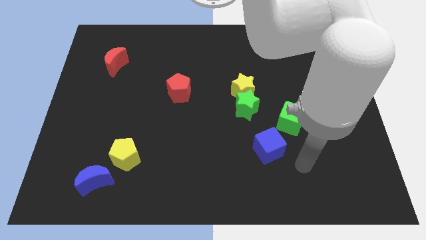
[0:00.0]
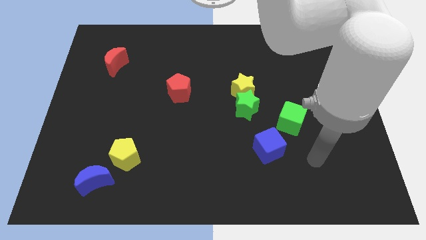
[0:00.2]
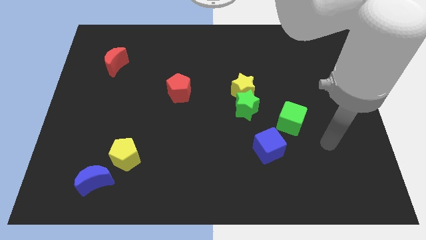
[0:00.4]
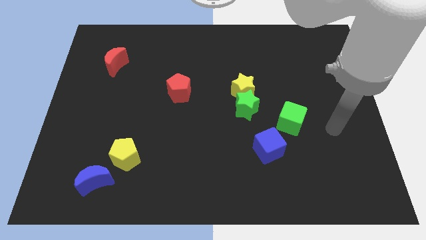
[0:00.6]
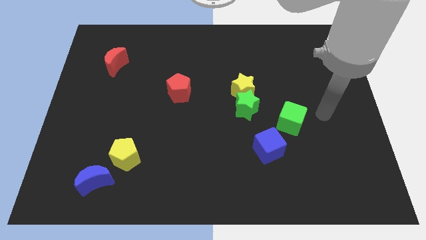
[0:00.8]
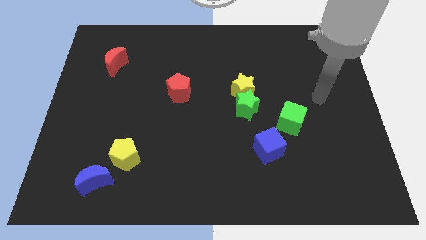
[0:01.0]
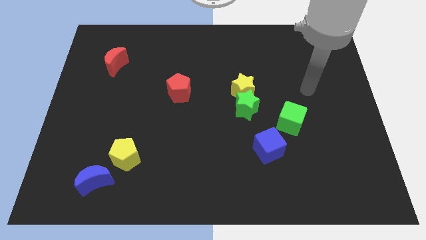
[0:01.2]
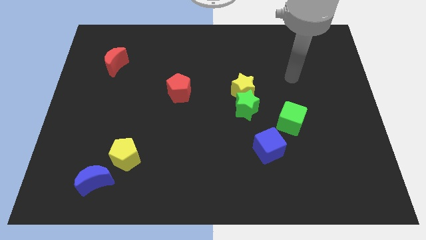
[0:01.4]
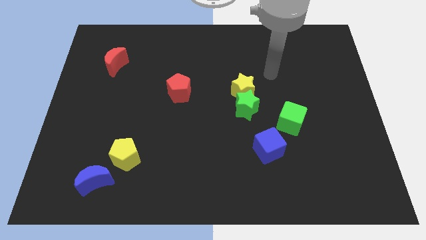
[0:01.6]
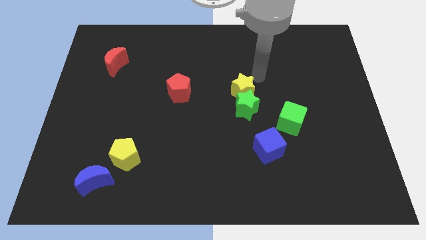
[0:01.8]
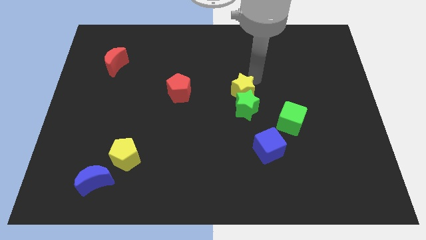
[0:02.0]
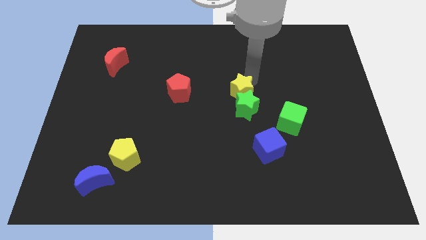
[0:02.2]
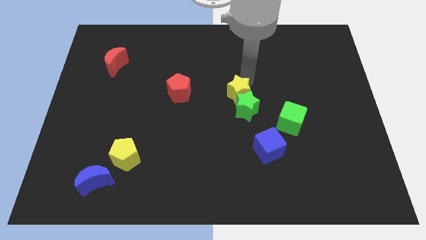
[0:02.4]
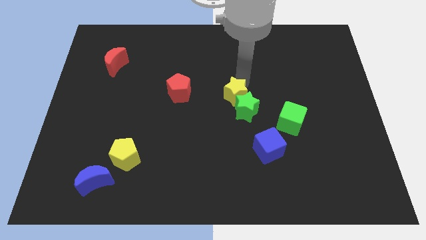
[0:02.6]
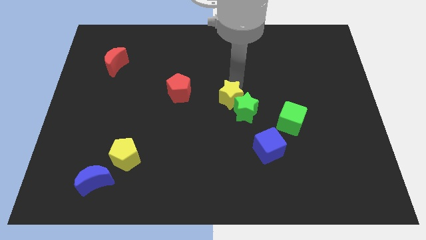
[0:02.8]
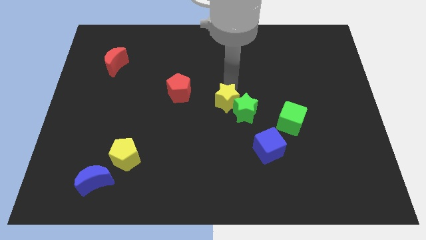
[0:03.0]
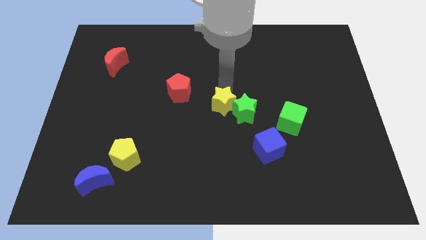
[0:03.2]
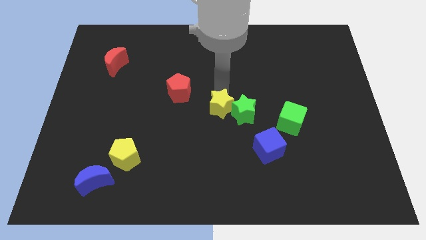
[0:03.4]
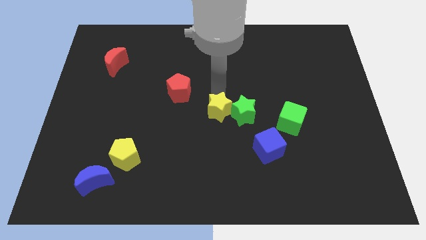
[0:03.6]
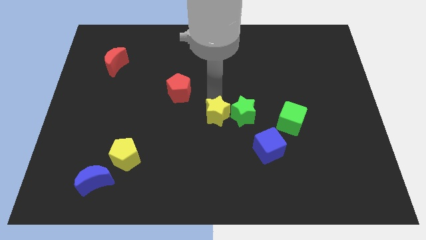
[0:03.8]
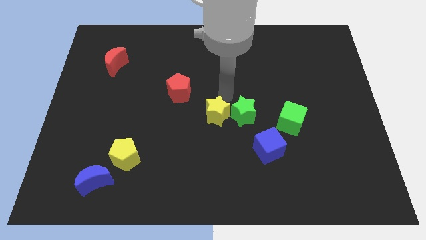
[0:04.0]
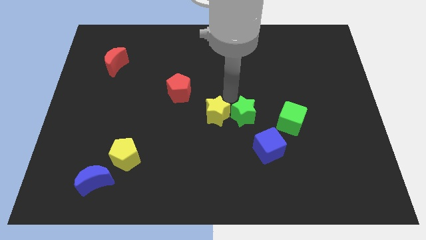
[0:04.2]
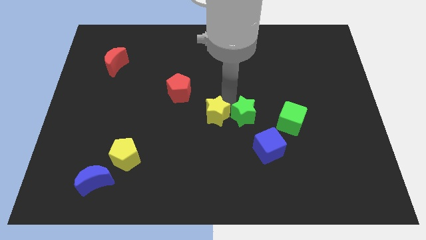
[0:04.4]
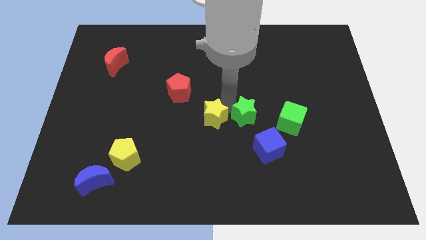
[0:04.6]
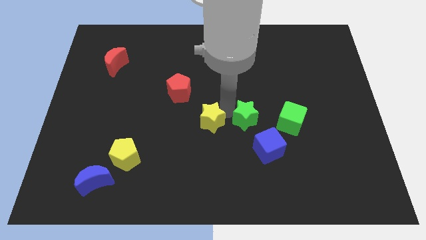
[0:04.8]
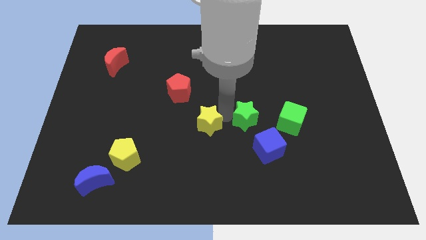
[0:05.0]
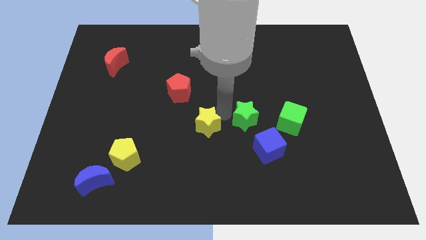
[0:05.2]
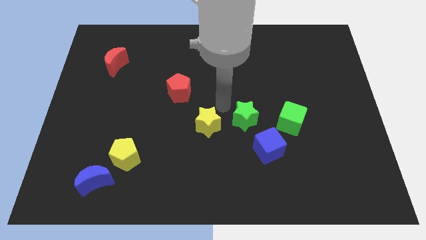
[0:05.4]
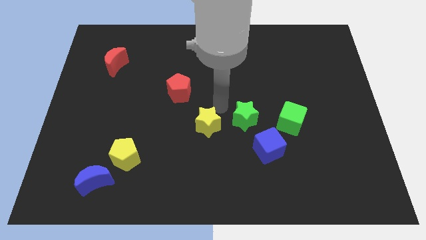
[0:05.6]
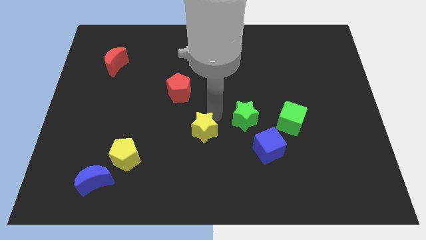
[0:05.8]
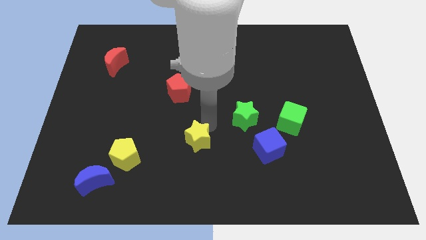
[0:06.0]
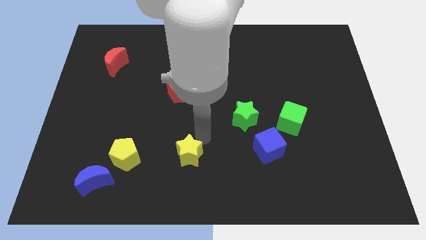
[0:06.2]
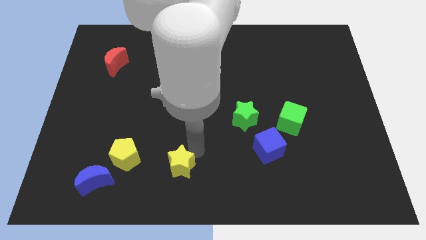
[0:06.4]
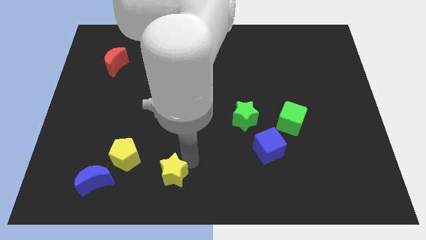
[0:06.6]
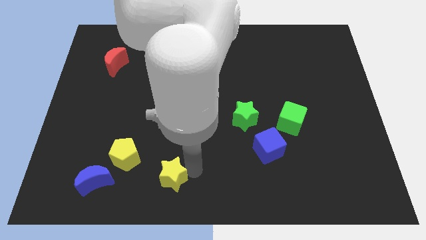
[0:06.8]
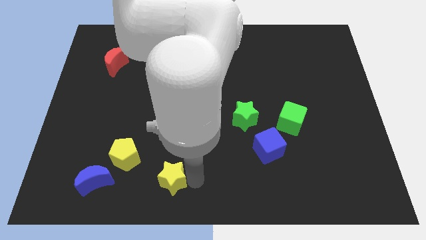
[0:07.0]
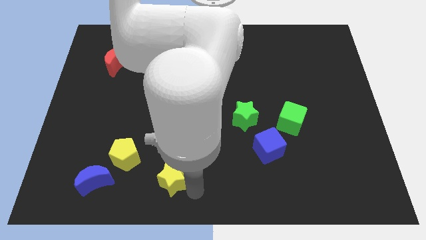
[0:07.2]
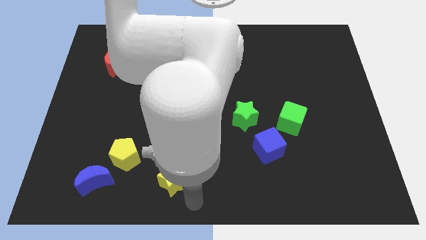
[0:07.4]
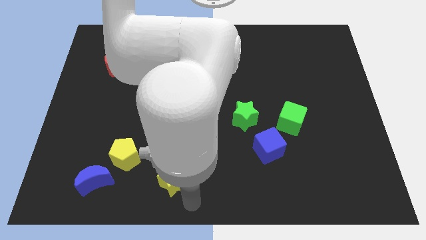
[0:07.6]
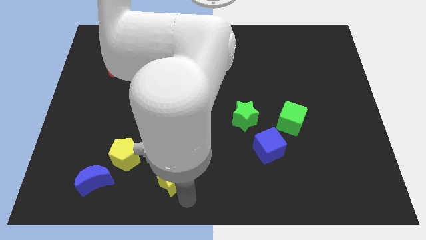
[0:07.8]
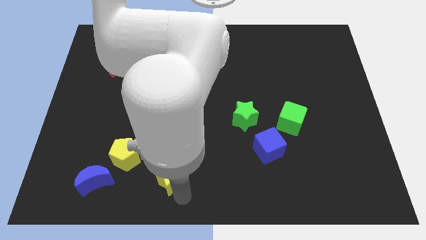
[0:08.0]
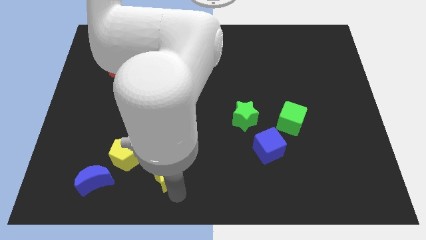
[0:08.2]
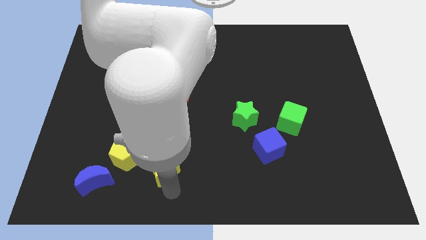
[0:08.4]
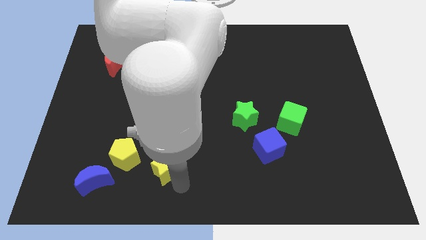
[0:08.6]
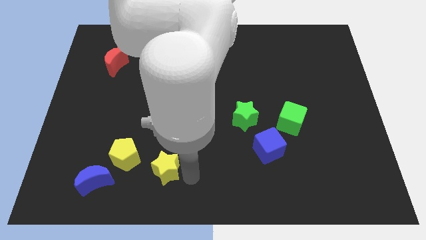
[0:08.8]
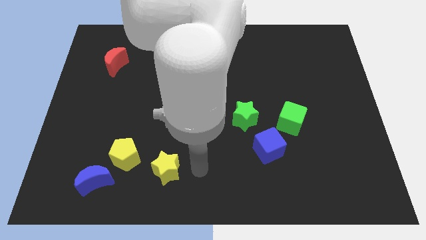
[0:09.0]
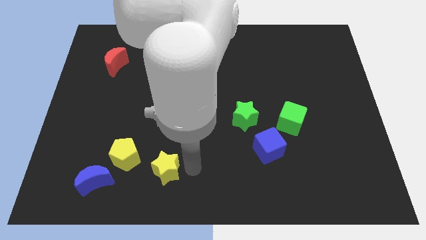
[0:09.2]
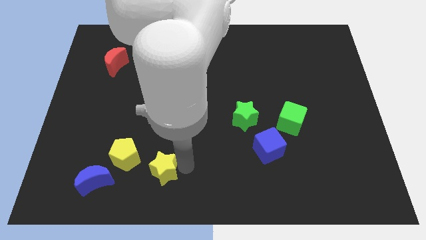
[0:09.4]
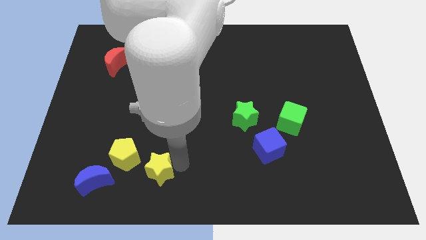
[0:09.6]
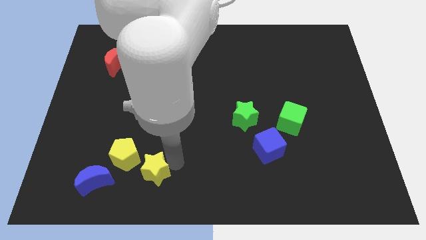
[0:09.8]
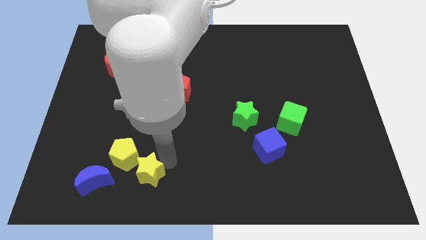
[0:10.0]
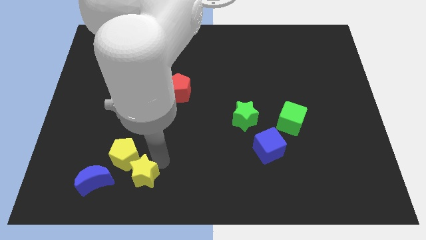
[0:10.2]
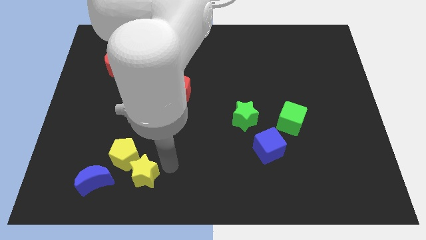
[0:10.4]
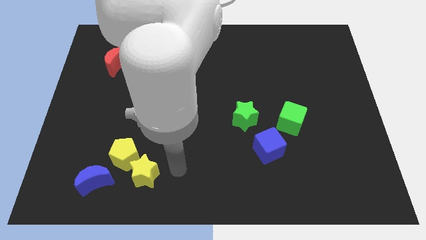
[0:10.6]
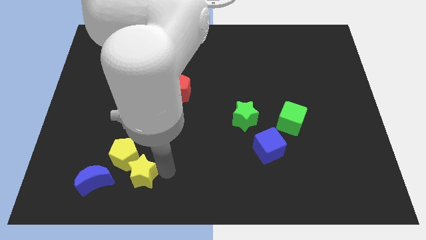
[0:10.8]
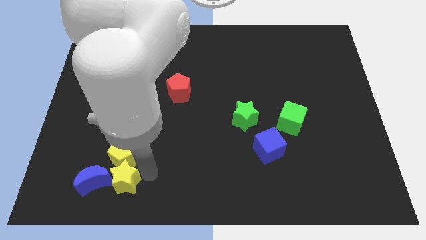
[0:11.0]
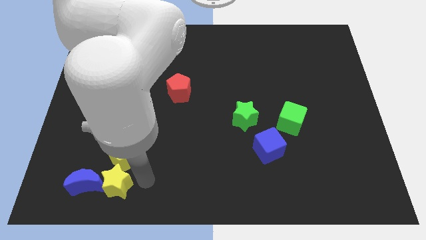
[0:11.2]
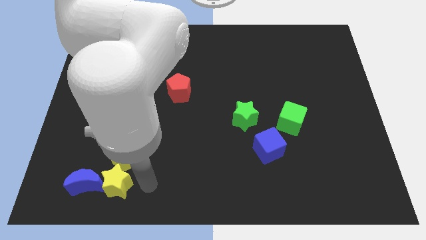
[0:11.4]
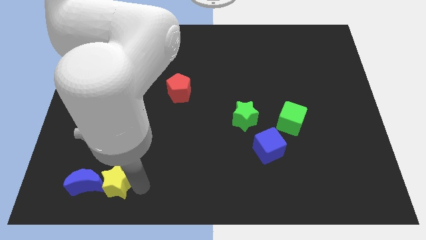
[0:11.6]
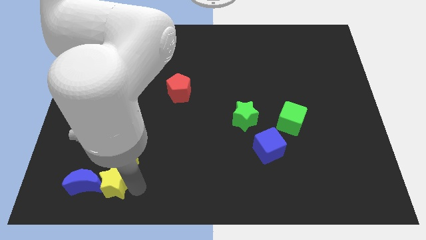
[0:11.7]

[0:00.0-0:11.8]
move the yellow star next to the blue moon

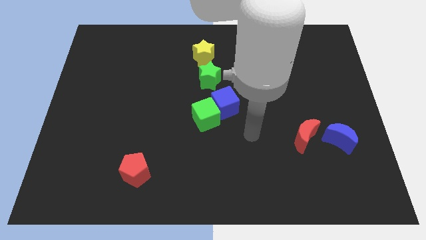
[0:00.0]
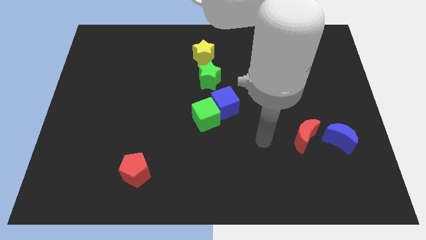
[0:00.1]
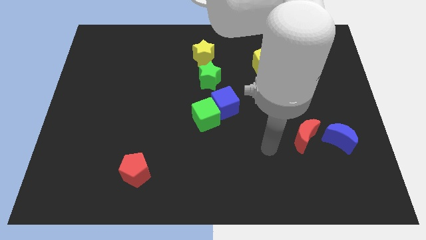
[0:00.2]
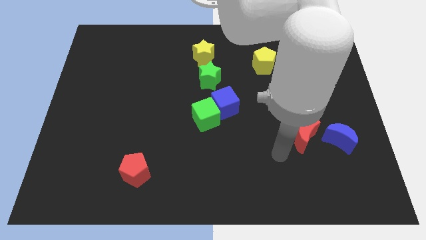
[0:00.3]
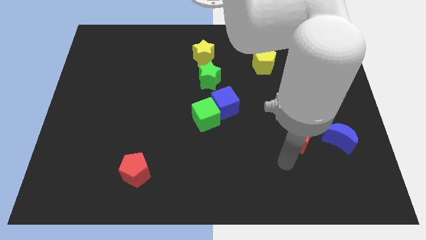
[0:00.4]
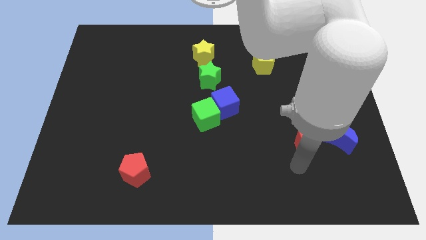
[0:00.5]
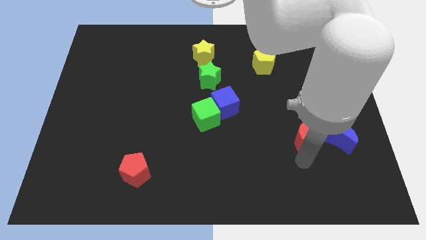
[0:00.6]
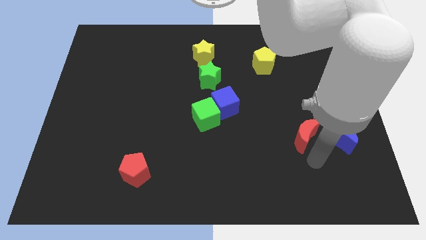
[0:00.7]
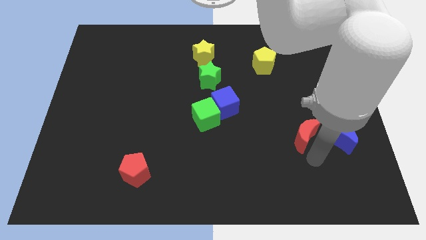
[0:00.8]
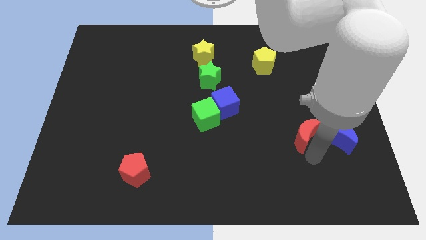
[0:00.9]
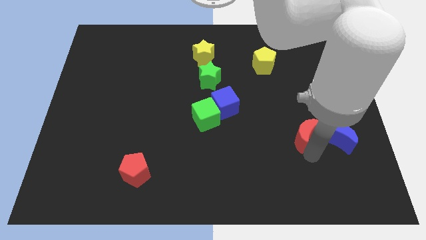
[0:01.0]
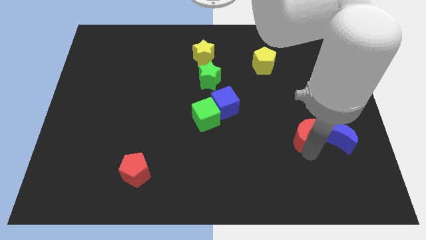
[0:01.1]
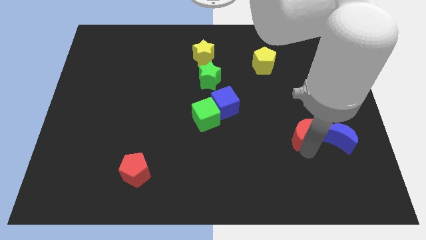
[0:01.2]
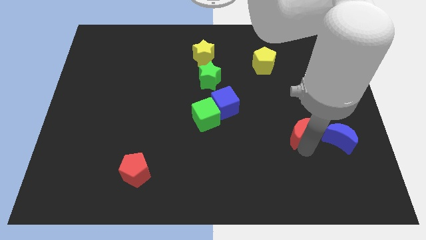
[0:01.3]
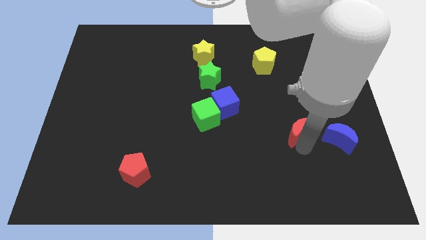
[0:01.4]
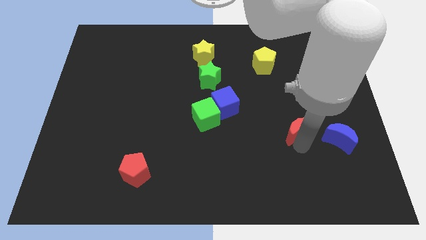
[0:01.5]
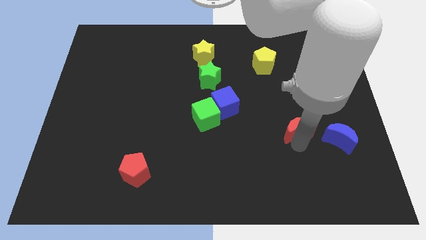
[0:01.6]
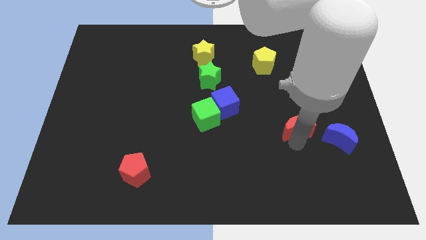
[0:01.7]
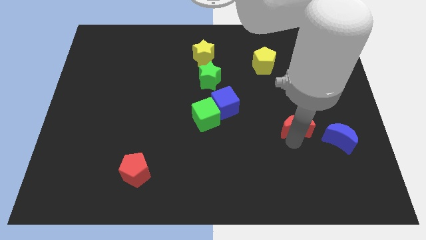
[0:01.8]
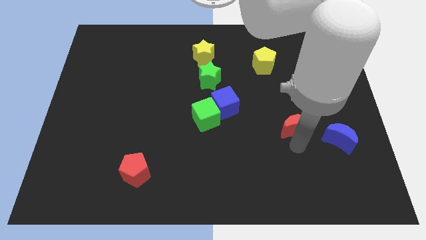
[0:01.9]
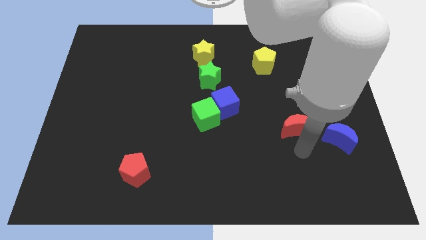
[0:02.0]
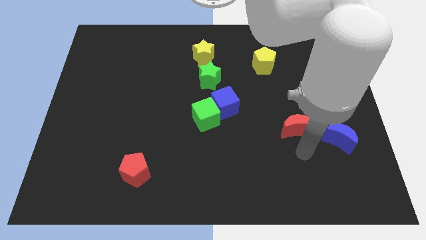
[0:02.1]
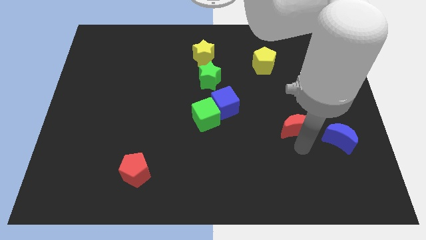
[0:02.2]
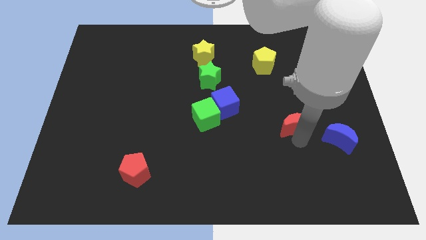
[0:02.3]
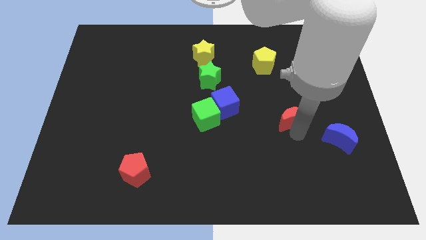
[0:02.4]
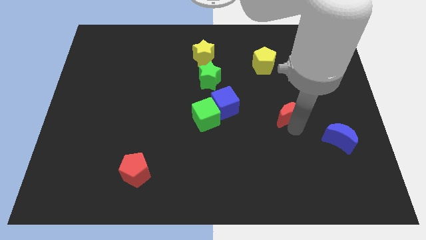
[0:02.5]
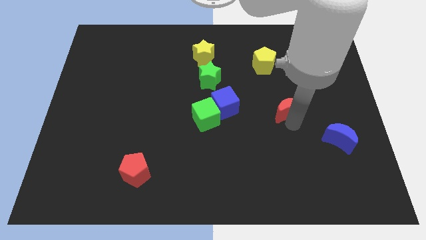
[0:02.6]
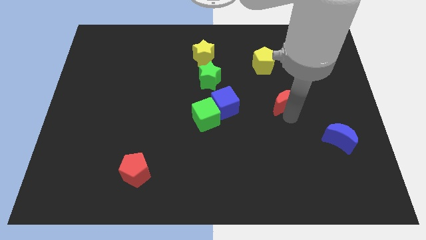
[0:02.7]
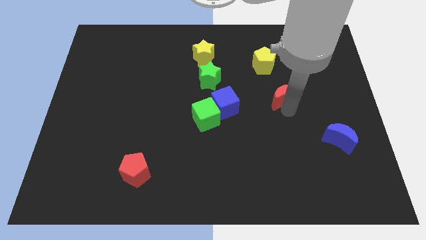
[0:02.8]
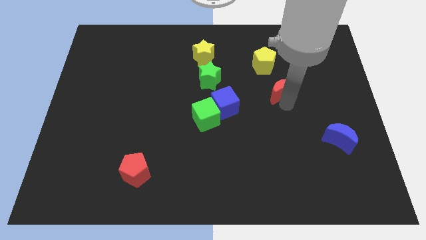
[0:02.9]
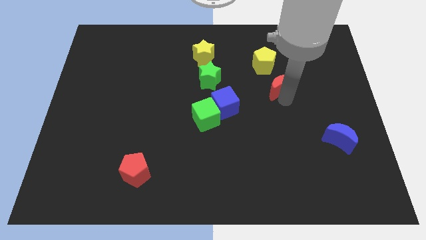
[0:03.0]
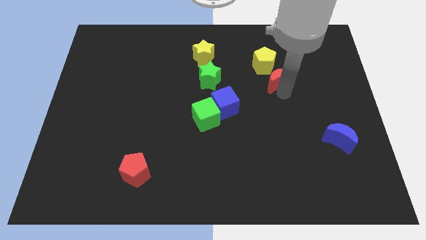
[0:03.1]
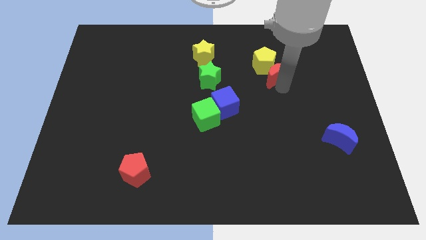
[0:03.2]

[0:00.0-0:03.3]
move the red moon to the yellow pentagon
